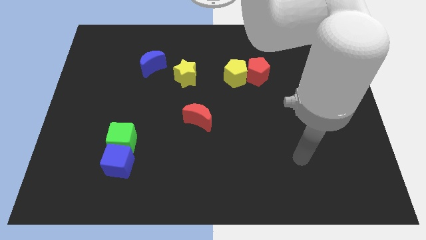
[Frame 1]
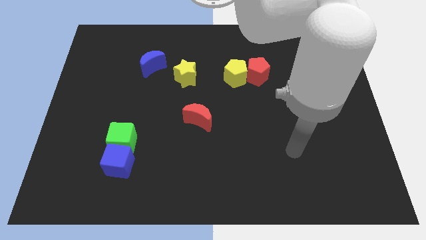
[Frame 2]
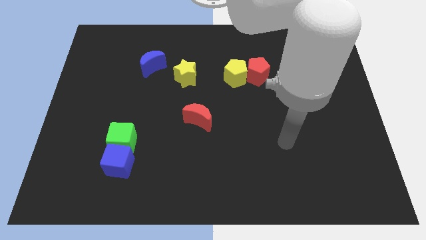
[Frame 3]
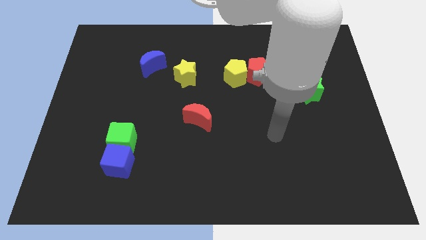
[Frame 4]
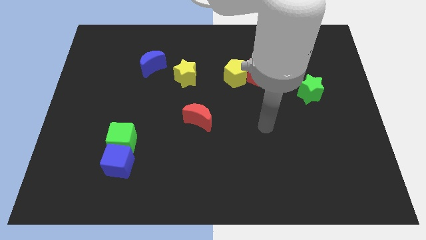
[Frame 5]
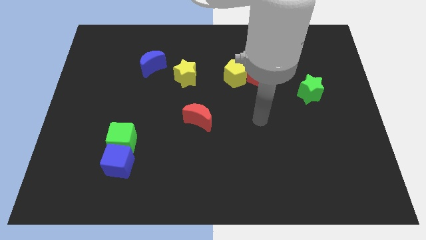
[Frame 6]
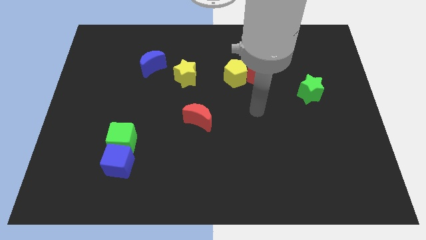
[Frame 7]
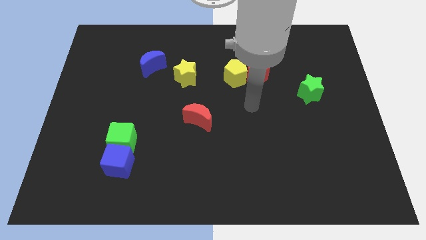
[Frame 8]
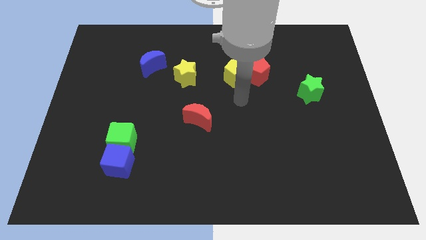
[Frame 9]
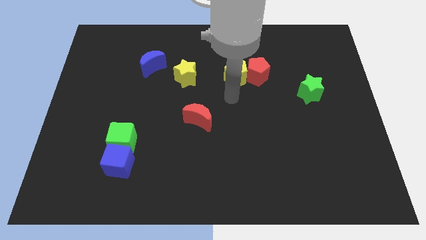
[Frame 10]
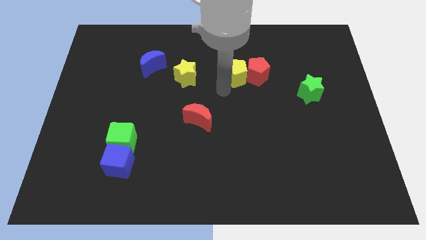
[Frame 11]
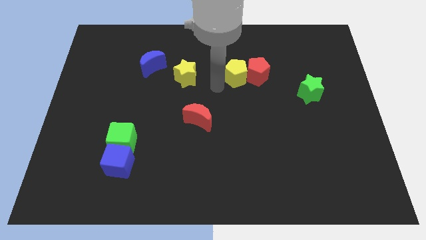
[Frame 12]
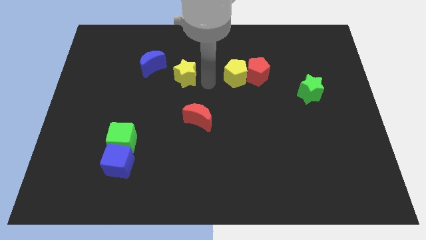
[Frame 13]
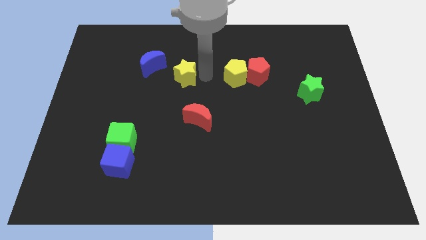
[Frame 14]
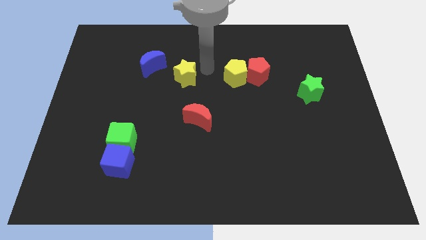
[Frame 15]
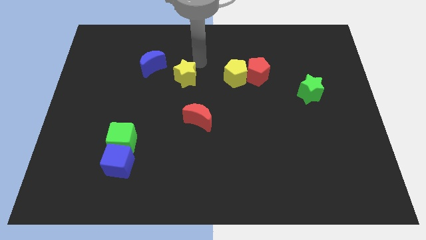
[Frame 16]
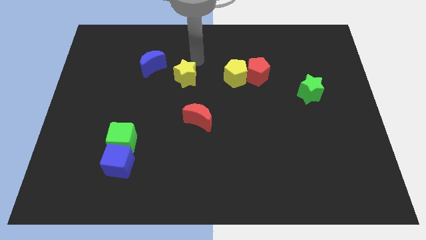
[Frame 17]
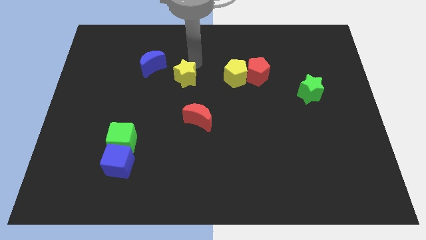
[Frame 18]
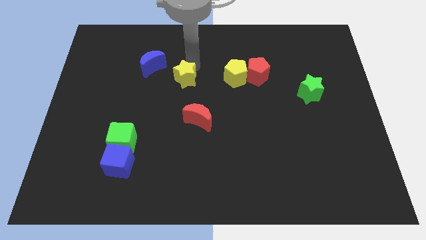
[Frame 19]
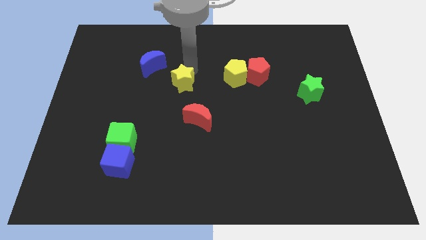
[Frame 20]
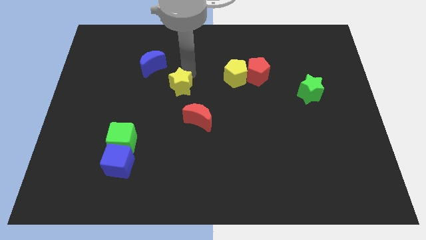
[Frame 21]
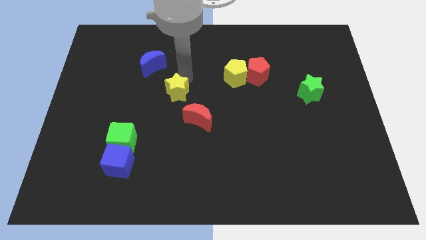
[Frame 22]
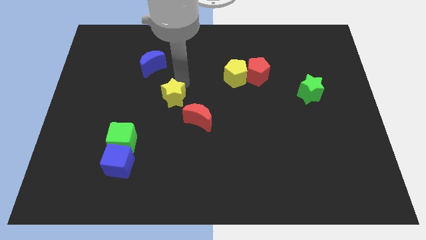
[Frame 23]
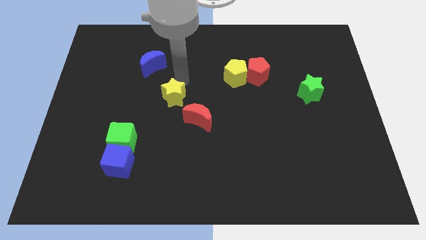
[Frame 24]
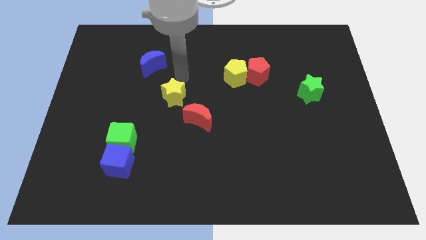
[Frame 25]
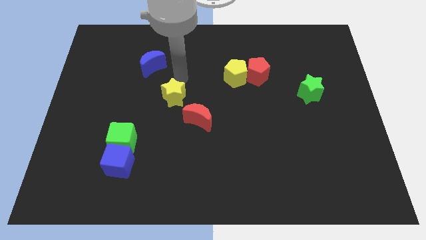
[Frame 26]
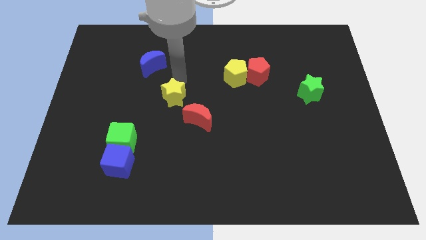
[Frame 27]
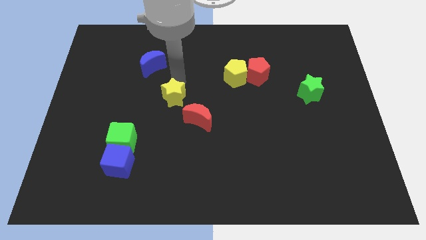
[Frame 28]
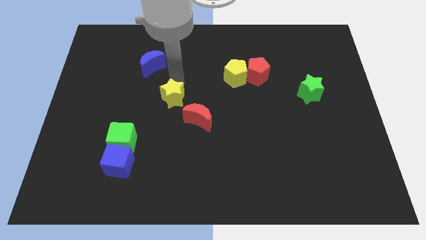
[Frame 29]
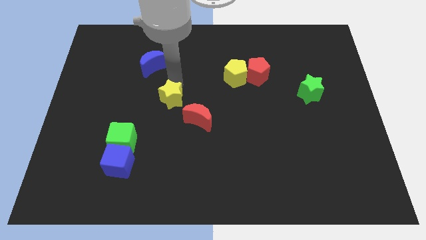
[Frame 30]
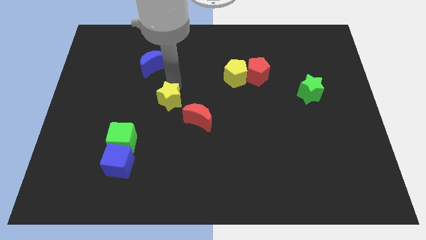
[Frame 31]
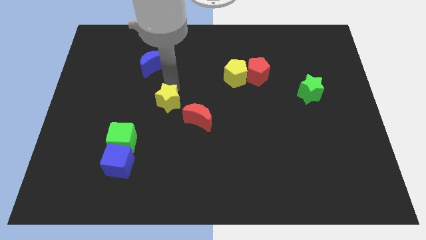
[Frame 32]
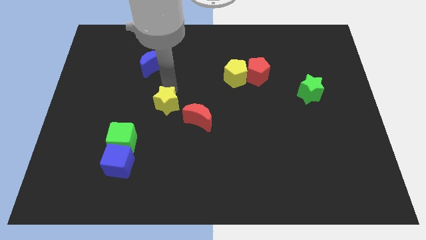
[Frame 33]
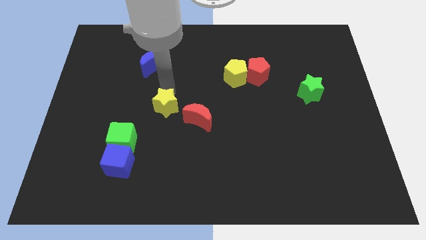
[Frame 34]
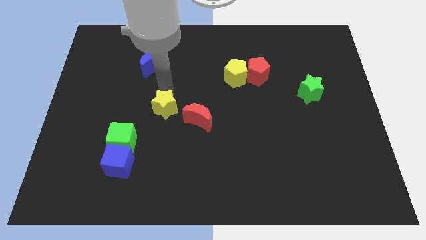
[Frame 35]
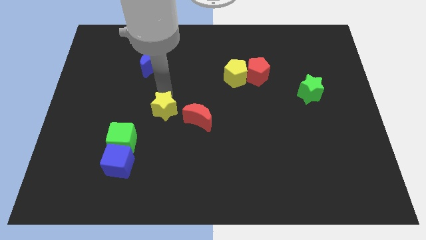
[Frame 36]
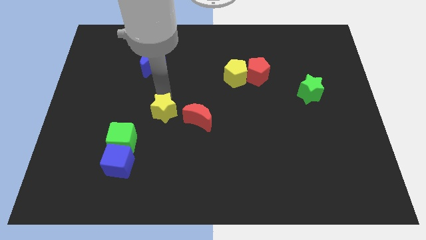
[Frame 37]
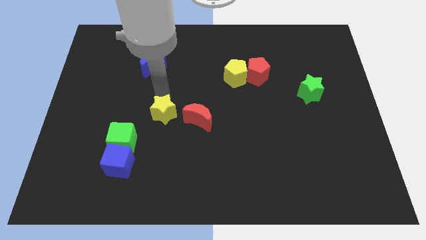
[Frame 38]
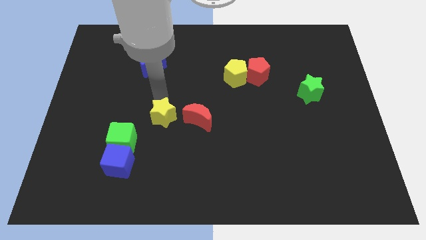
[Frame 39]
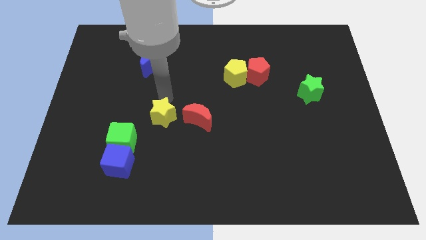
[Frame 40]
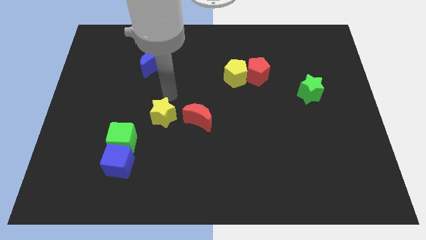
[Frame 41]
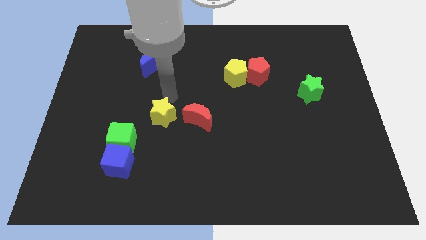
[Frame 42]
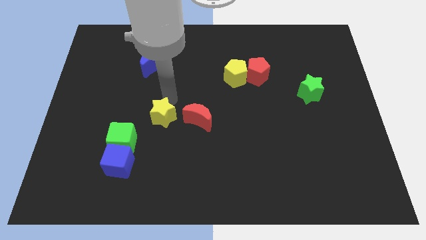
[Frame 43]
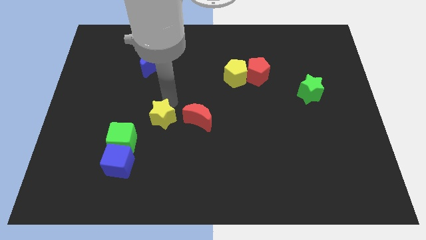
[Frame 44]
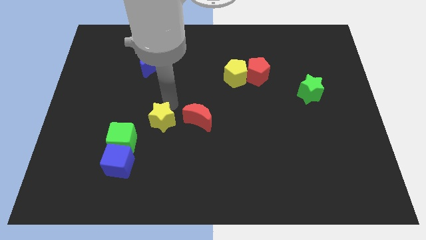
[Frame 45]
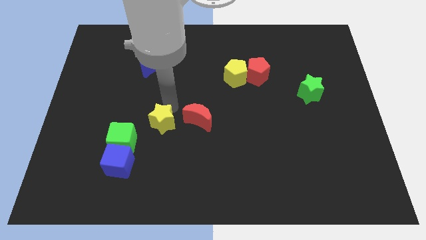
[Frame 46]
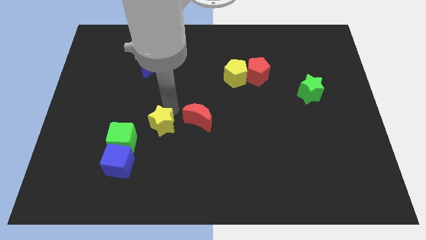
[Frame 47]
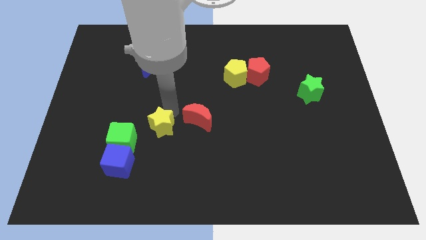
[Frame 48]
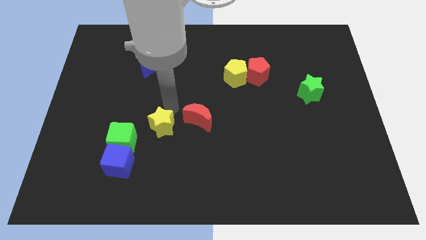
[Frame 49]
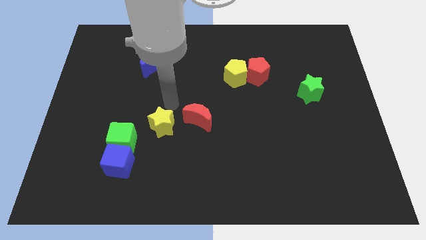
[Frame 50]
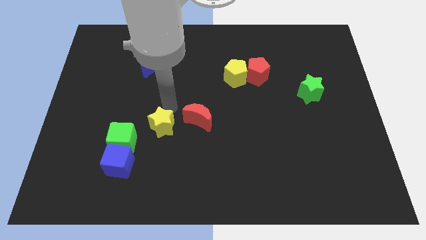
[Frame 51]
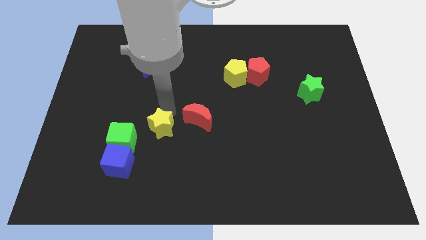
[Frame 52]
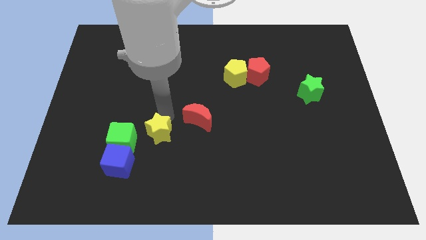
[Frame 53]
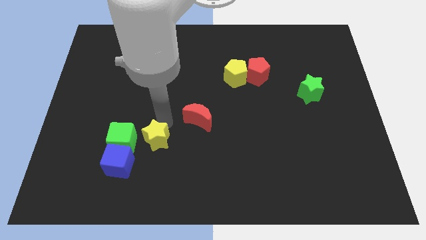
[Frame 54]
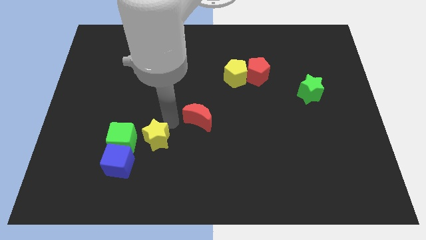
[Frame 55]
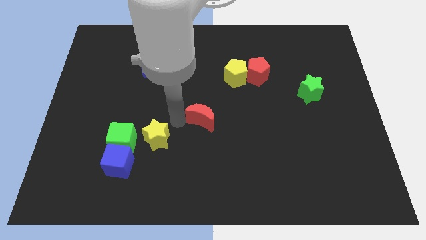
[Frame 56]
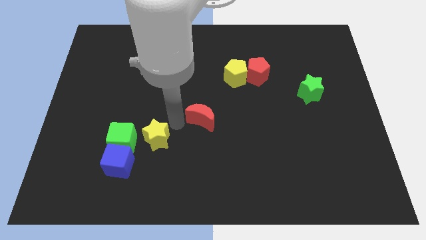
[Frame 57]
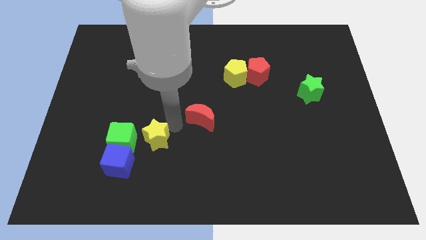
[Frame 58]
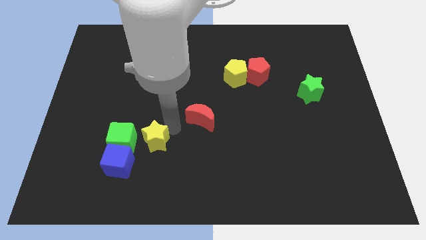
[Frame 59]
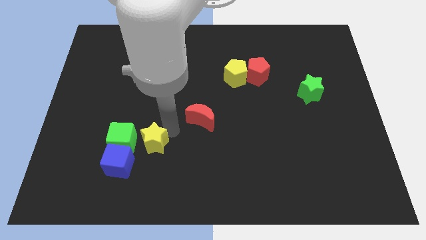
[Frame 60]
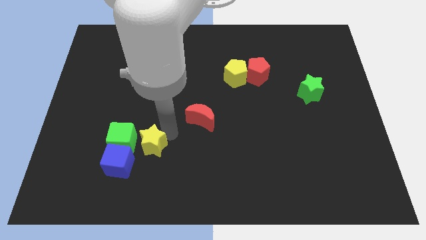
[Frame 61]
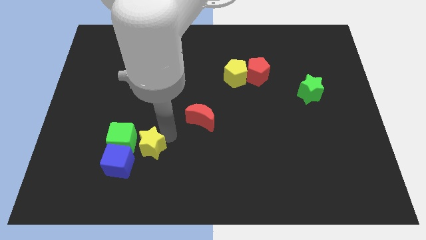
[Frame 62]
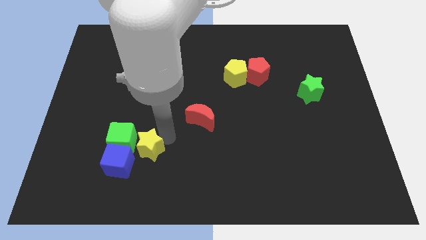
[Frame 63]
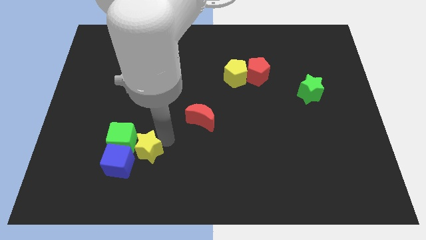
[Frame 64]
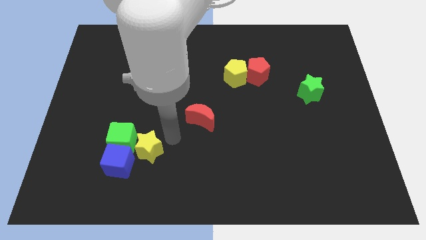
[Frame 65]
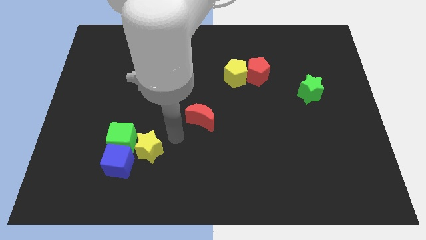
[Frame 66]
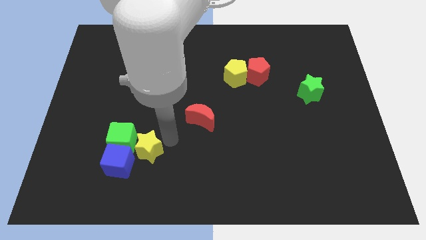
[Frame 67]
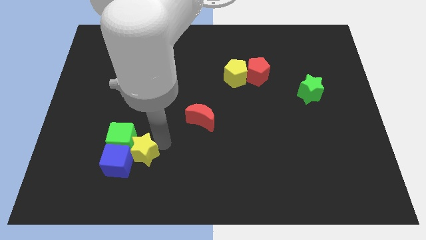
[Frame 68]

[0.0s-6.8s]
put the yellow star close to the blue cube

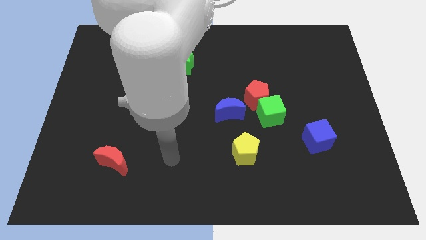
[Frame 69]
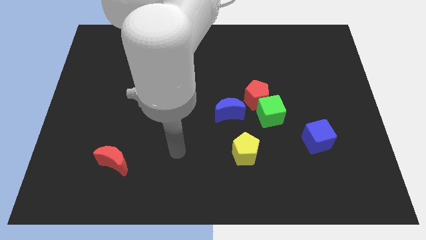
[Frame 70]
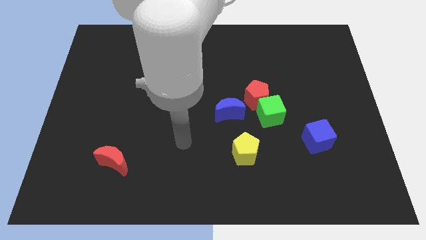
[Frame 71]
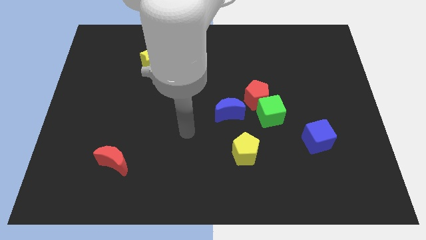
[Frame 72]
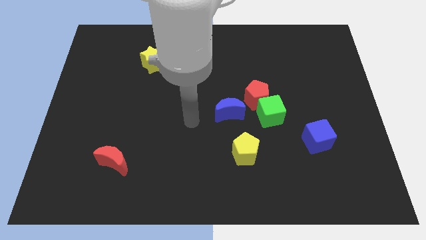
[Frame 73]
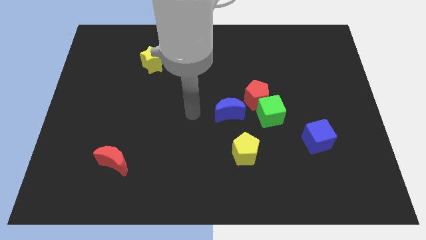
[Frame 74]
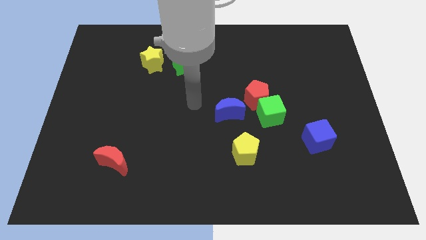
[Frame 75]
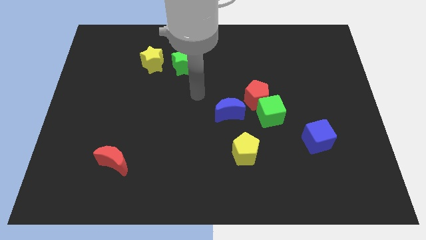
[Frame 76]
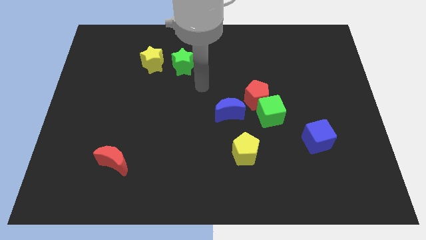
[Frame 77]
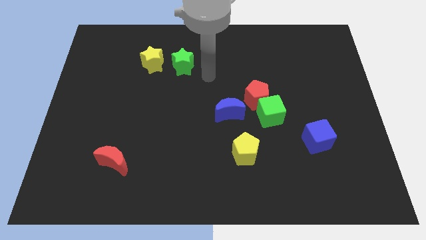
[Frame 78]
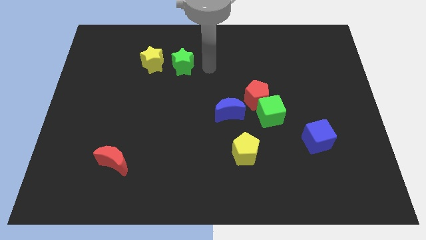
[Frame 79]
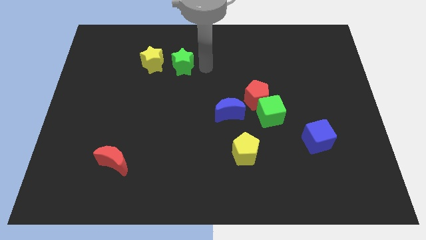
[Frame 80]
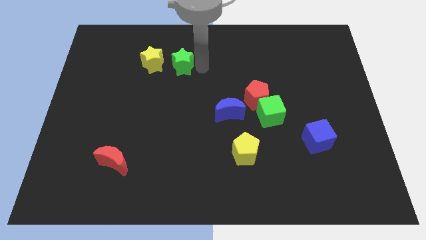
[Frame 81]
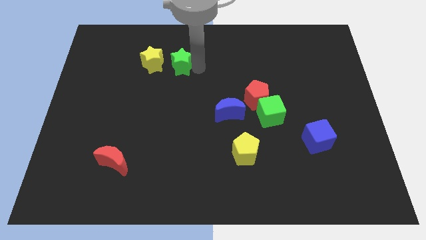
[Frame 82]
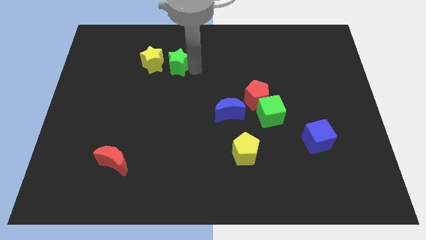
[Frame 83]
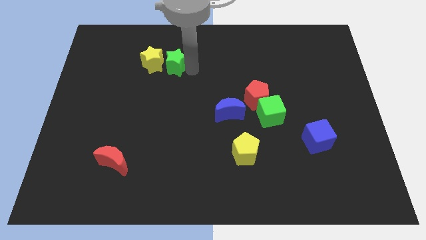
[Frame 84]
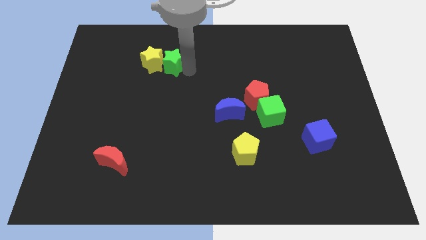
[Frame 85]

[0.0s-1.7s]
move the green star towards the yellow star
